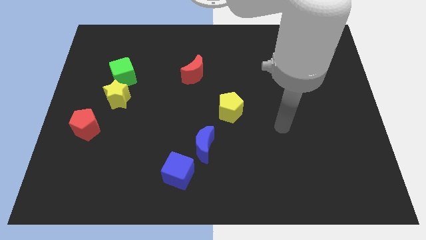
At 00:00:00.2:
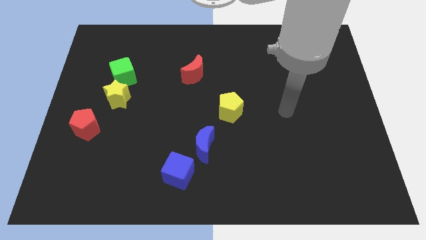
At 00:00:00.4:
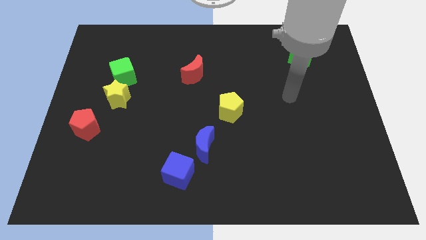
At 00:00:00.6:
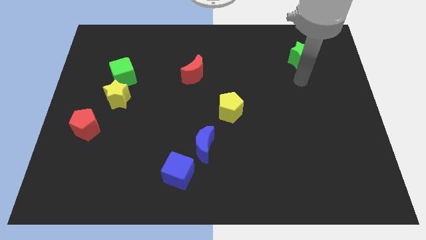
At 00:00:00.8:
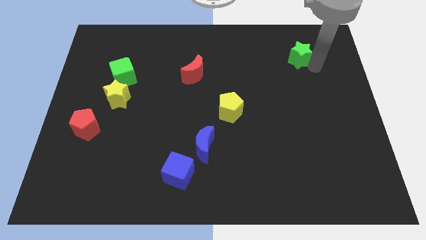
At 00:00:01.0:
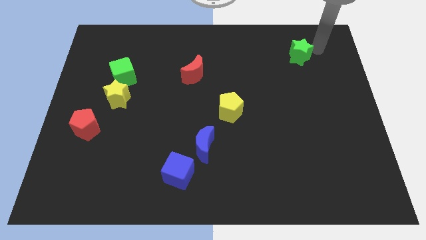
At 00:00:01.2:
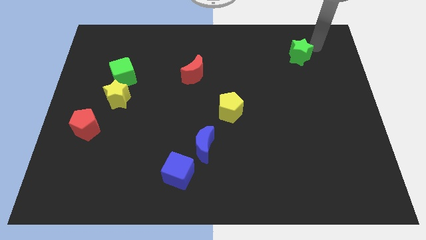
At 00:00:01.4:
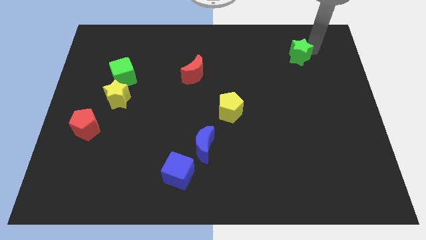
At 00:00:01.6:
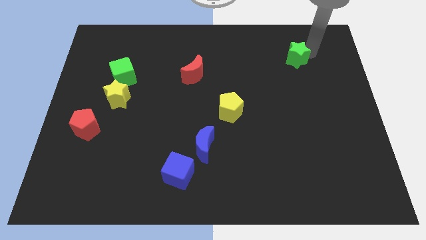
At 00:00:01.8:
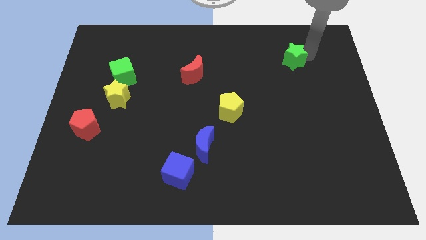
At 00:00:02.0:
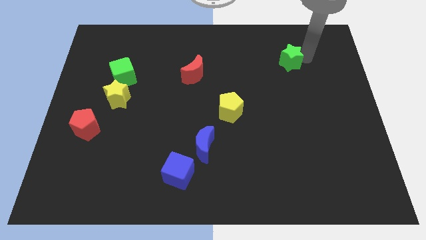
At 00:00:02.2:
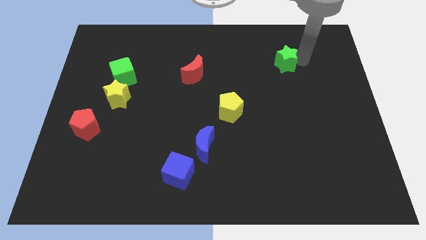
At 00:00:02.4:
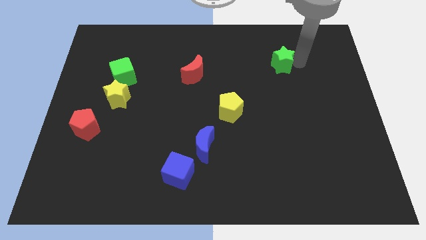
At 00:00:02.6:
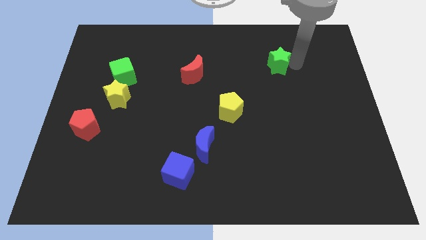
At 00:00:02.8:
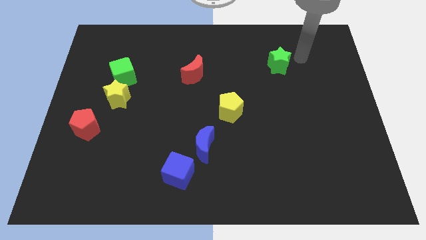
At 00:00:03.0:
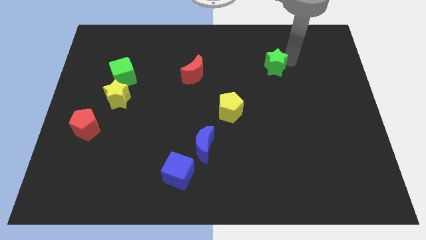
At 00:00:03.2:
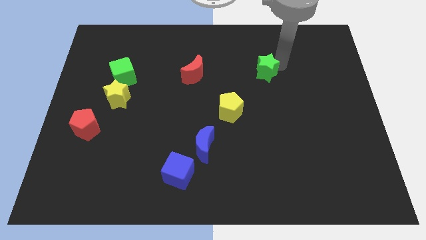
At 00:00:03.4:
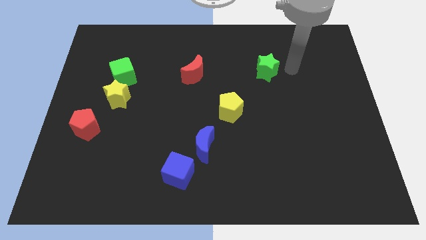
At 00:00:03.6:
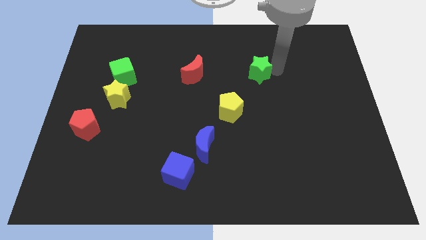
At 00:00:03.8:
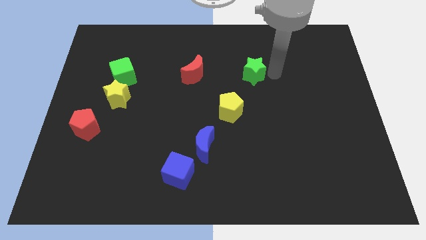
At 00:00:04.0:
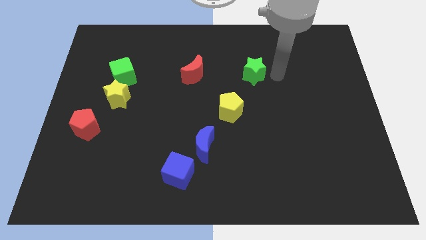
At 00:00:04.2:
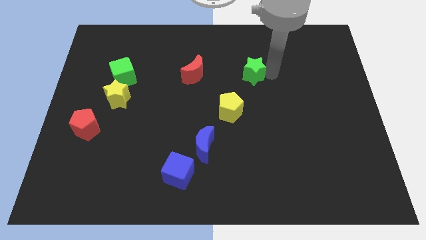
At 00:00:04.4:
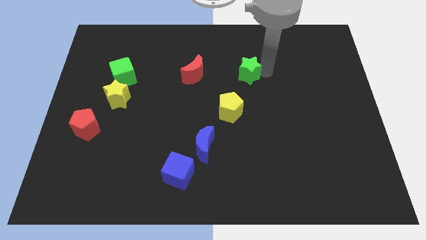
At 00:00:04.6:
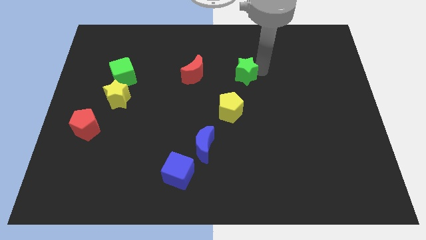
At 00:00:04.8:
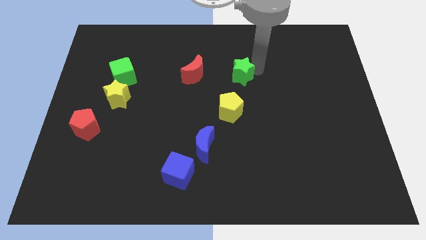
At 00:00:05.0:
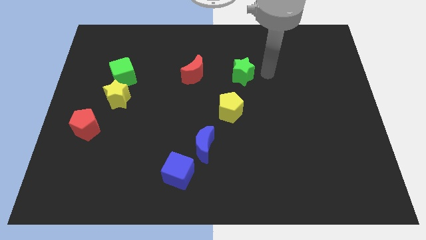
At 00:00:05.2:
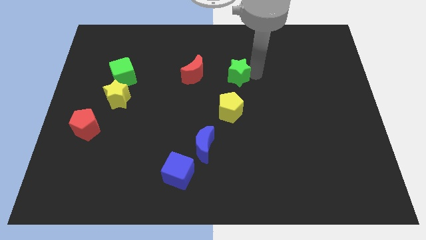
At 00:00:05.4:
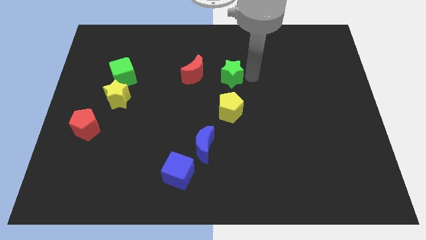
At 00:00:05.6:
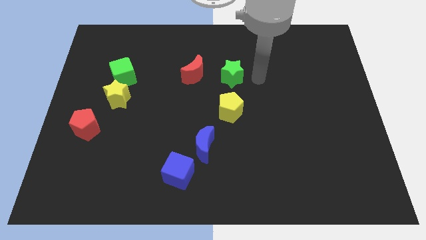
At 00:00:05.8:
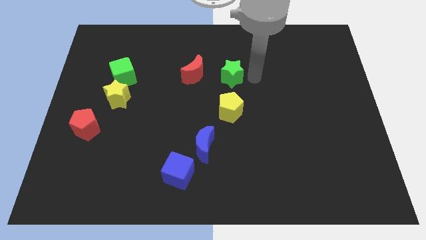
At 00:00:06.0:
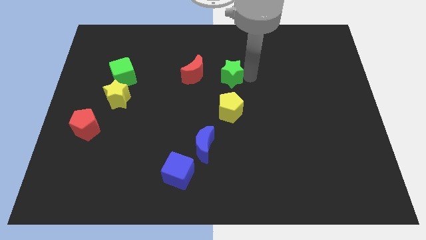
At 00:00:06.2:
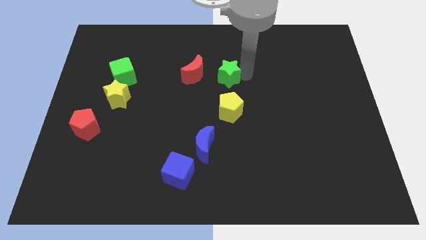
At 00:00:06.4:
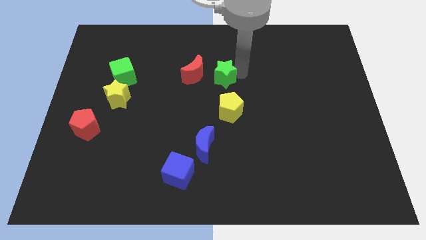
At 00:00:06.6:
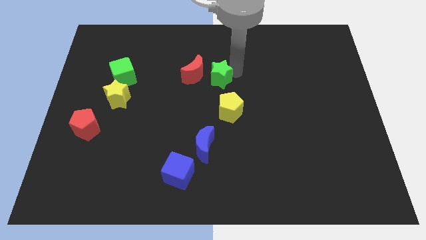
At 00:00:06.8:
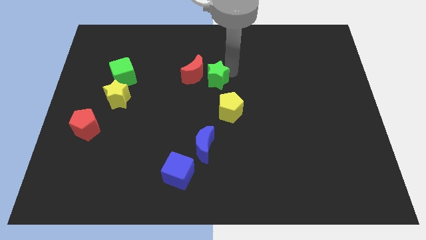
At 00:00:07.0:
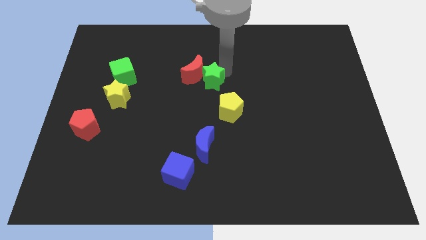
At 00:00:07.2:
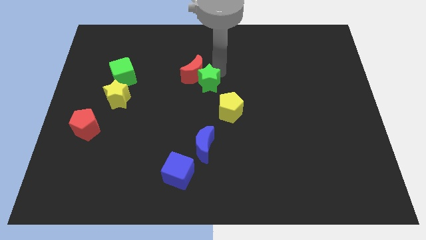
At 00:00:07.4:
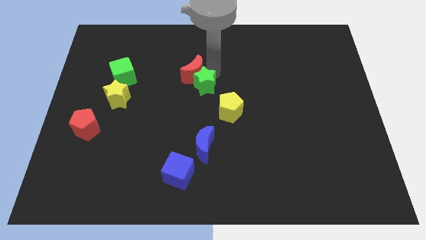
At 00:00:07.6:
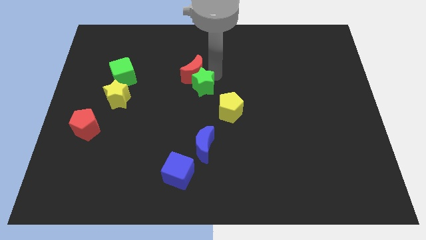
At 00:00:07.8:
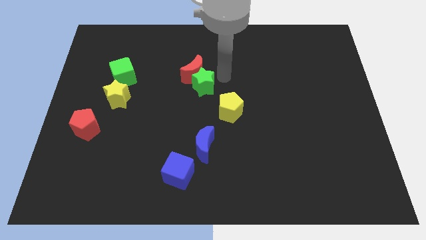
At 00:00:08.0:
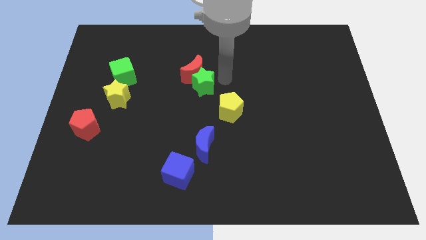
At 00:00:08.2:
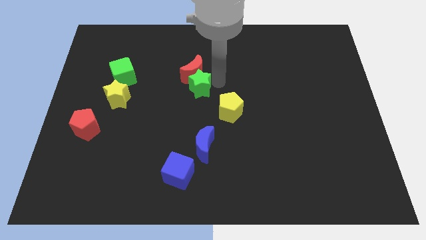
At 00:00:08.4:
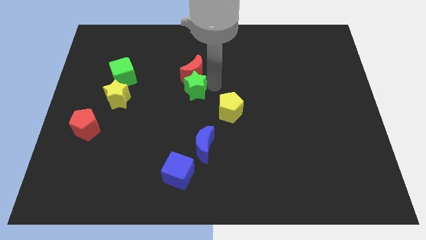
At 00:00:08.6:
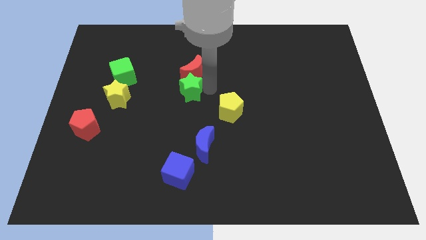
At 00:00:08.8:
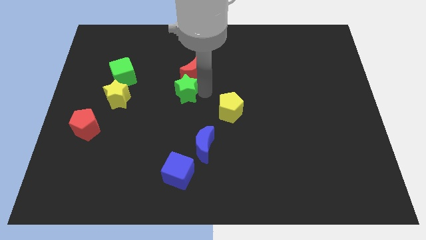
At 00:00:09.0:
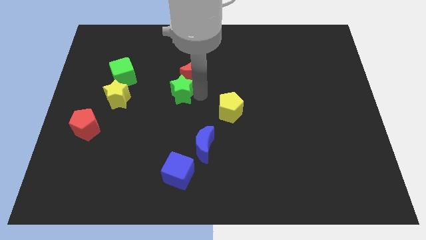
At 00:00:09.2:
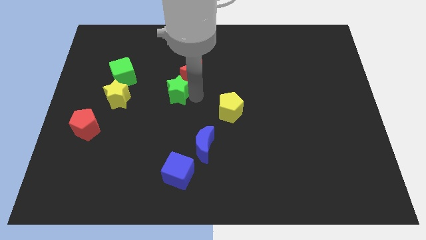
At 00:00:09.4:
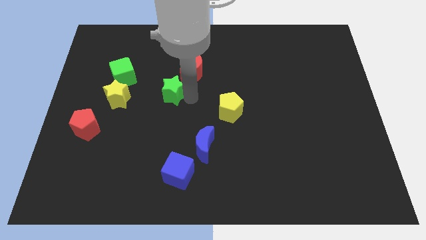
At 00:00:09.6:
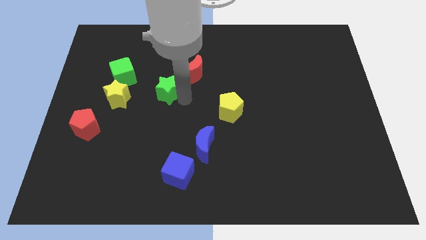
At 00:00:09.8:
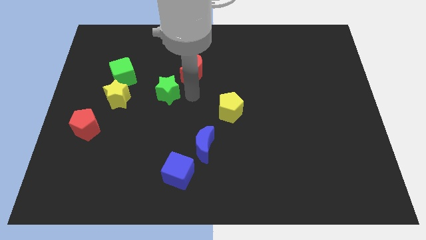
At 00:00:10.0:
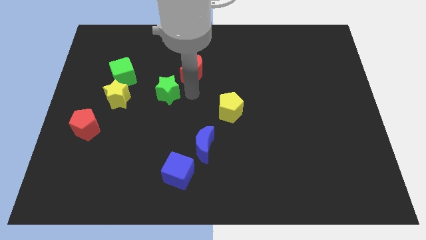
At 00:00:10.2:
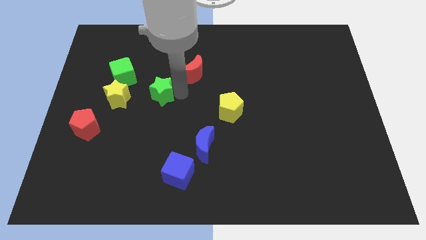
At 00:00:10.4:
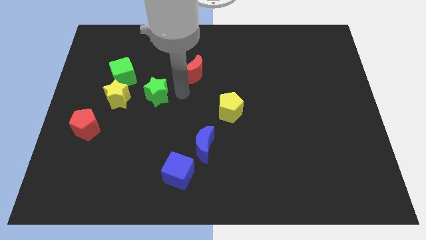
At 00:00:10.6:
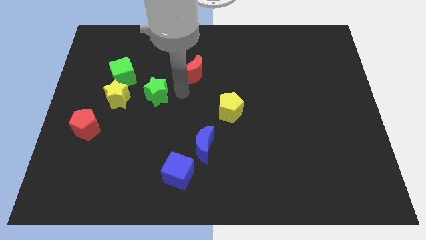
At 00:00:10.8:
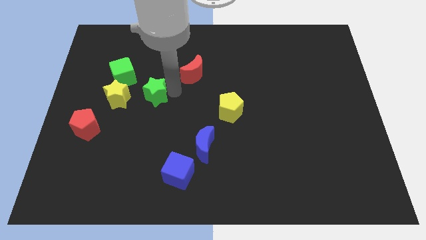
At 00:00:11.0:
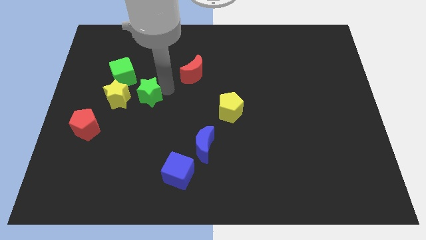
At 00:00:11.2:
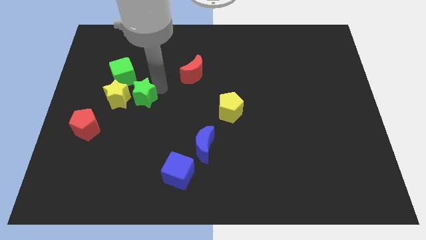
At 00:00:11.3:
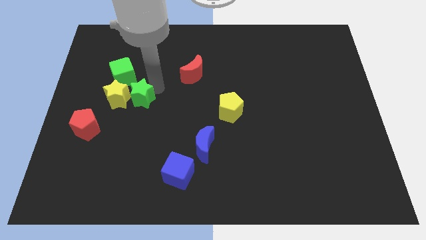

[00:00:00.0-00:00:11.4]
move the green star close to the yellow star
